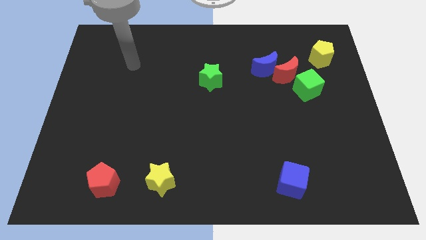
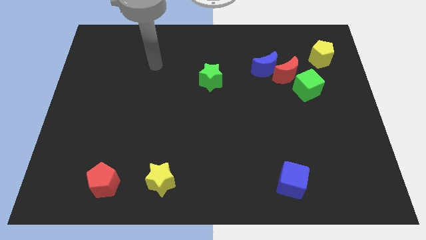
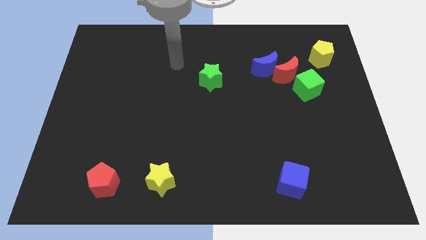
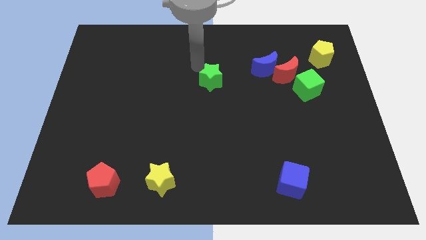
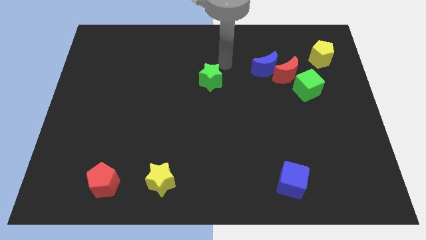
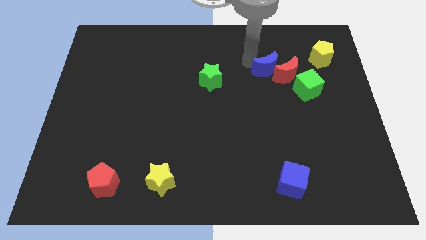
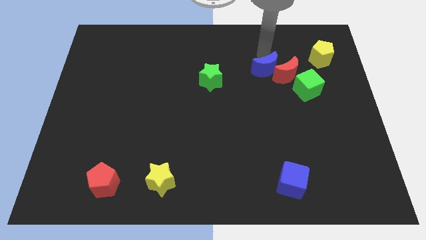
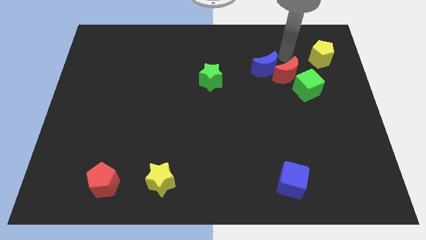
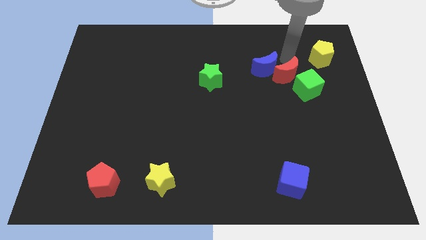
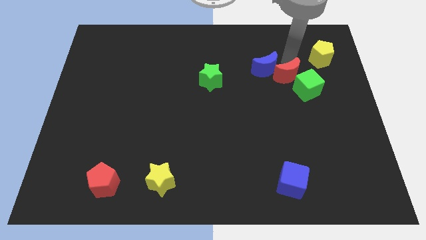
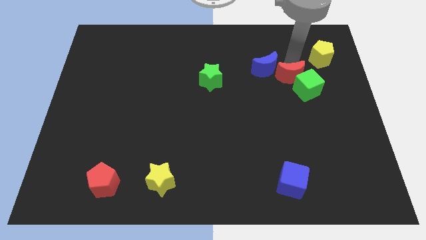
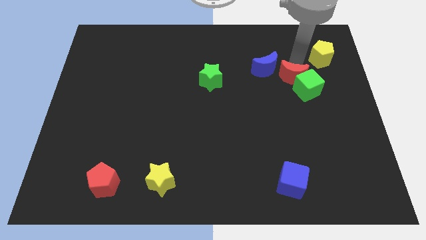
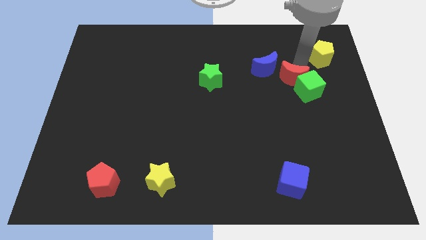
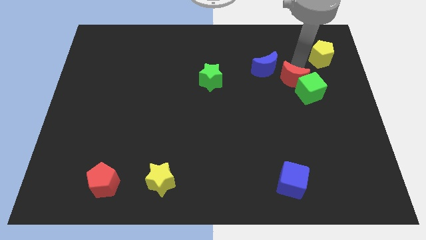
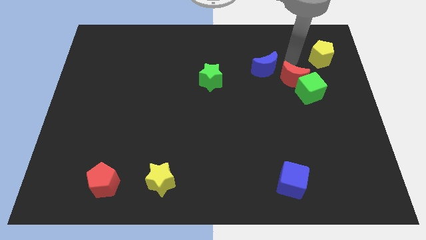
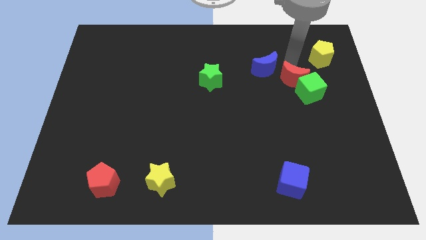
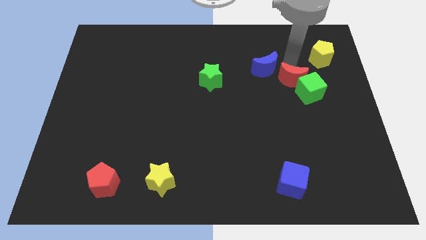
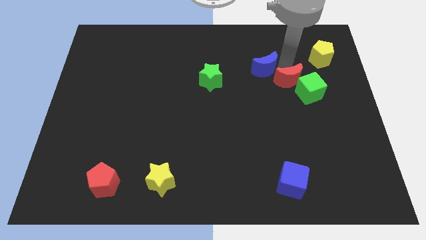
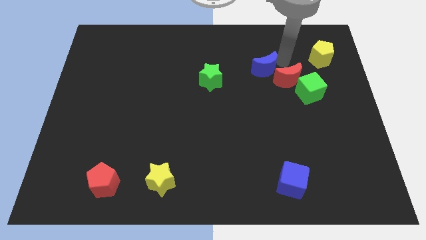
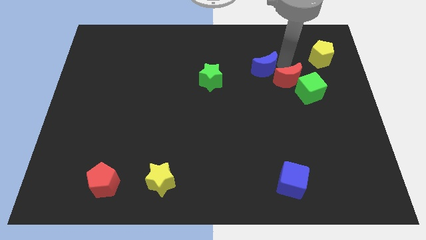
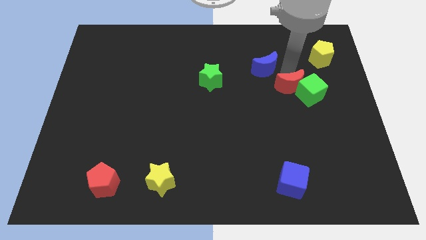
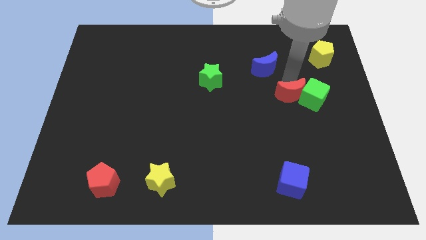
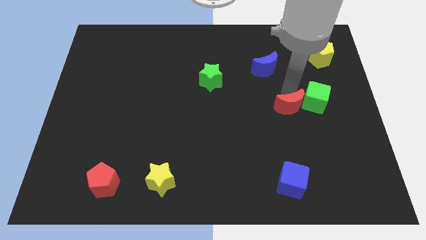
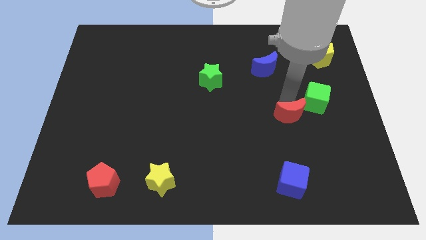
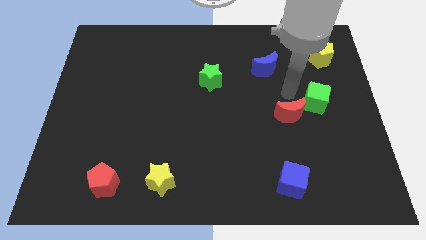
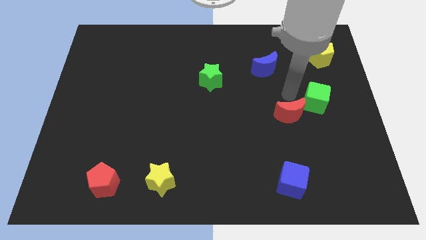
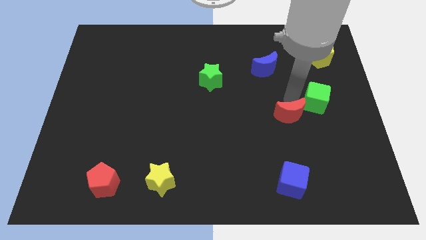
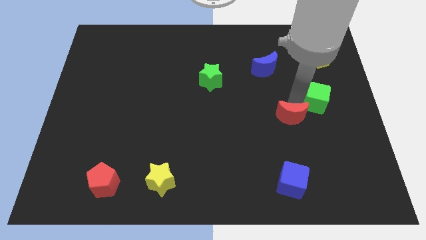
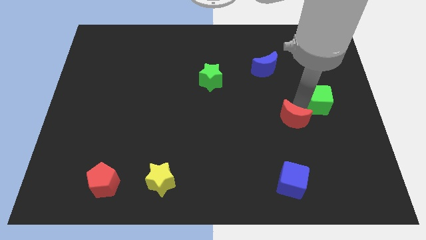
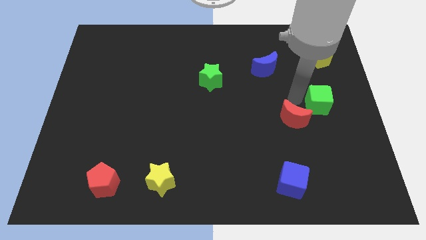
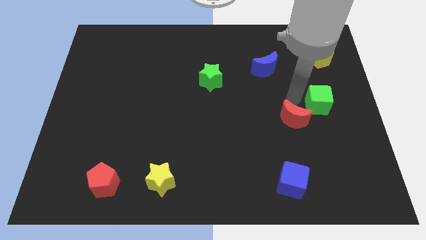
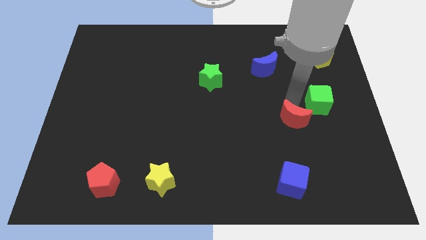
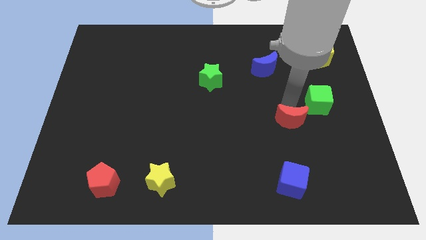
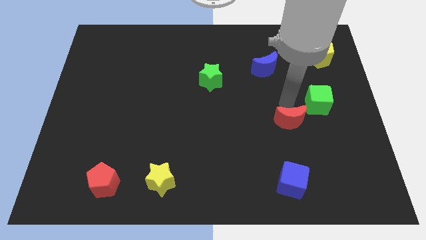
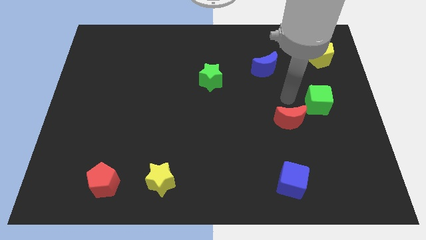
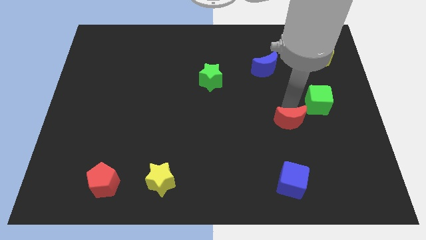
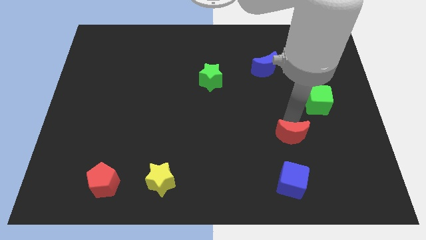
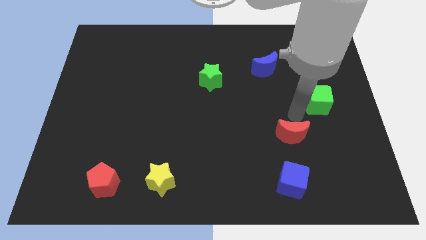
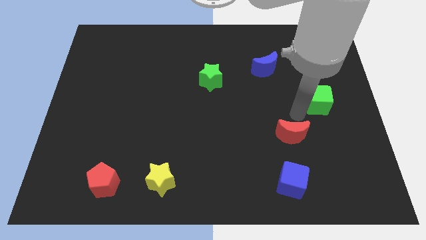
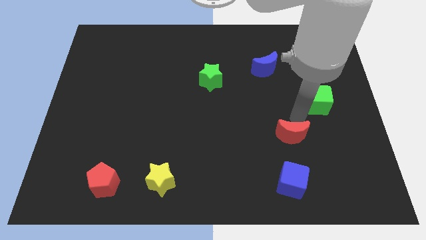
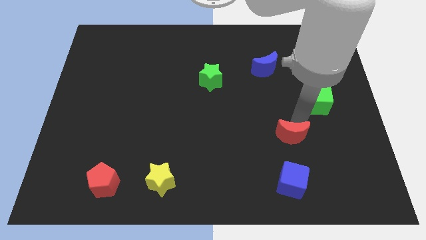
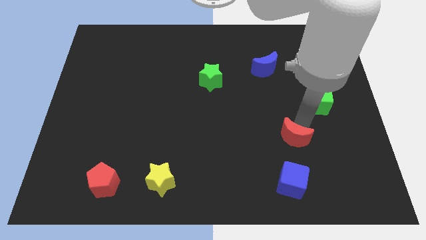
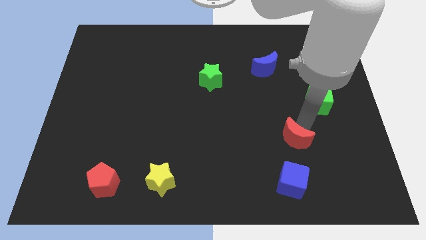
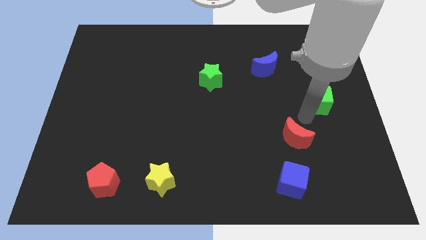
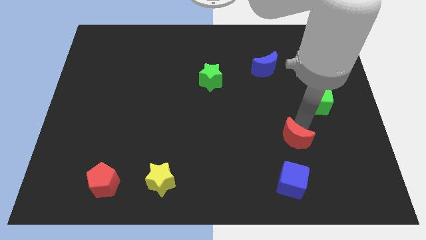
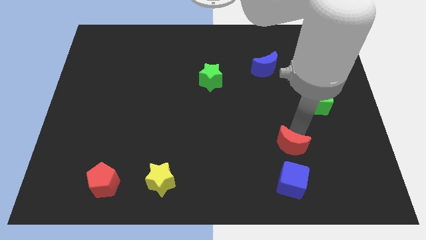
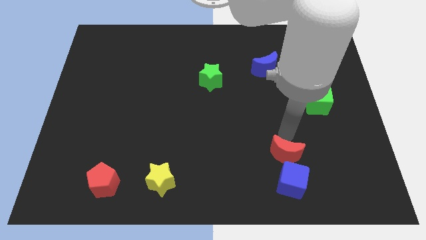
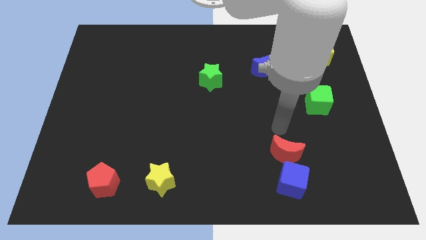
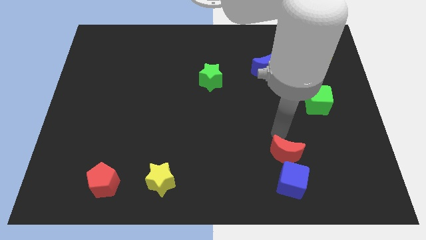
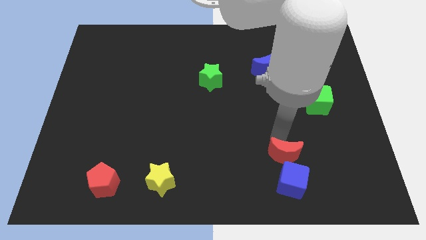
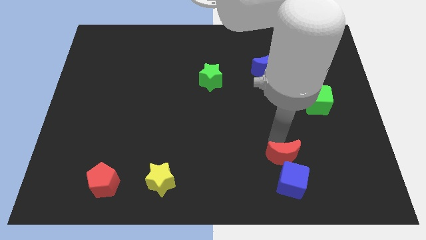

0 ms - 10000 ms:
slide the red moon next to the blue cube

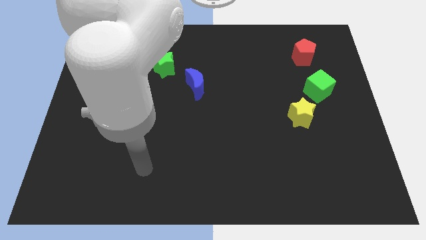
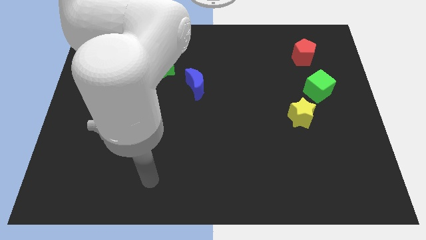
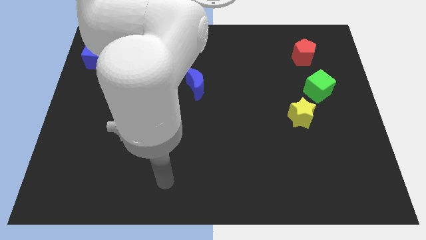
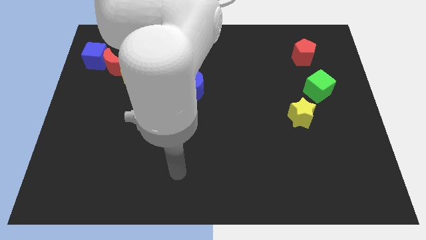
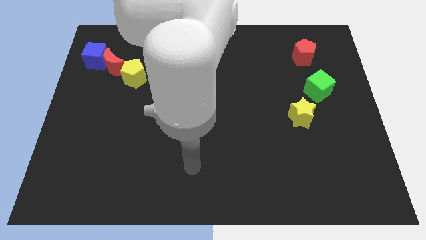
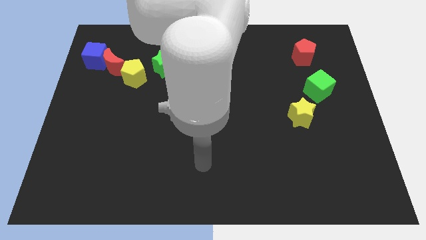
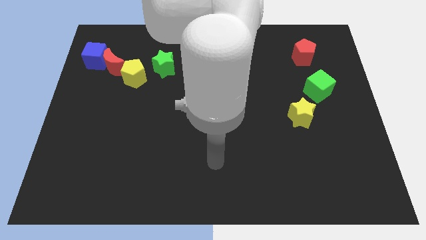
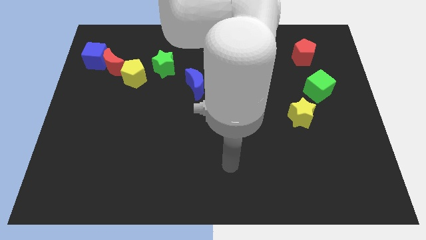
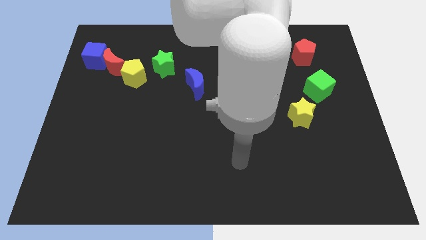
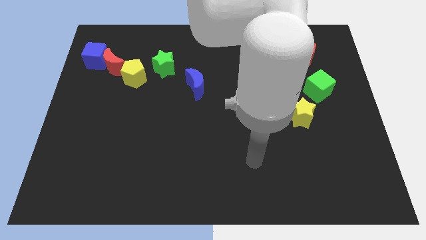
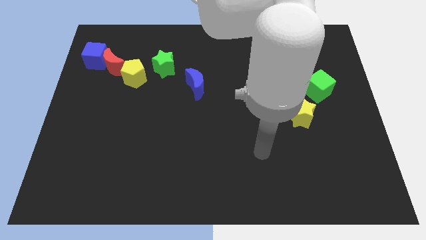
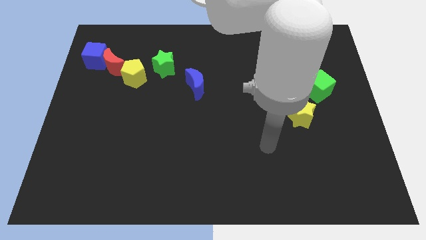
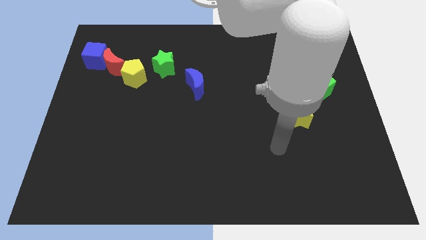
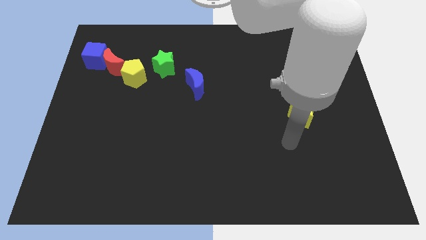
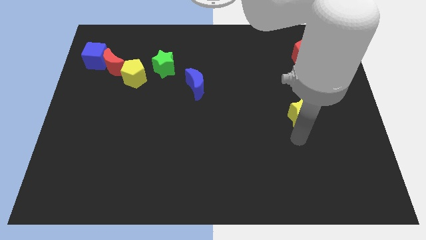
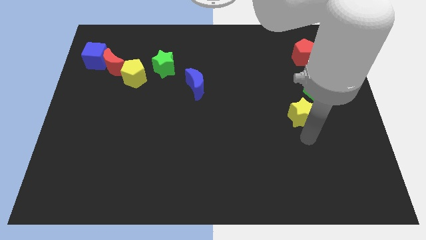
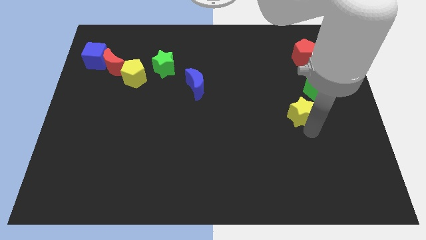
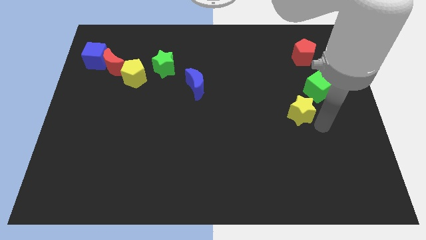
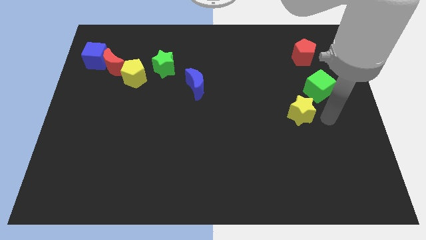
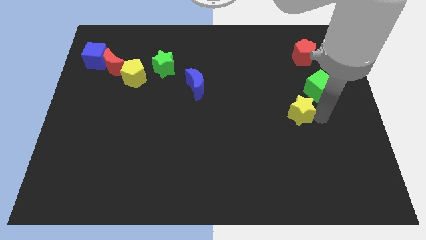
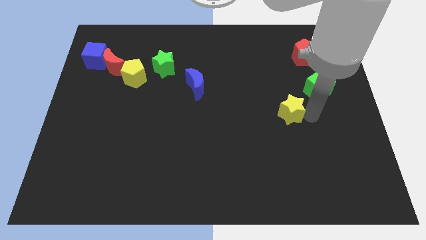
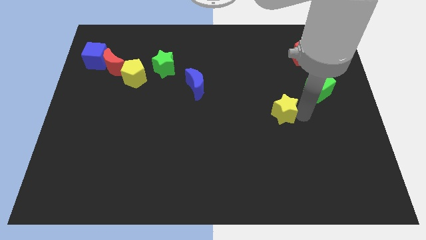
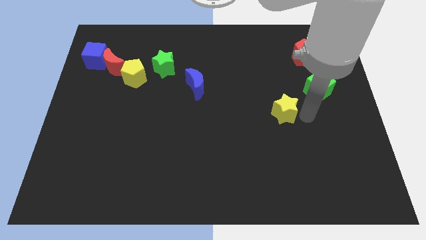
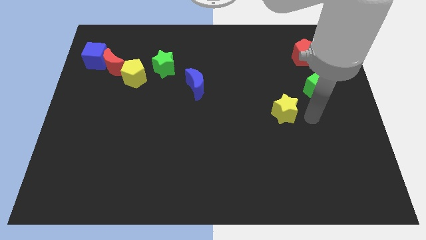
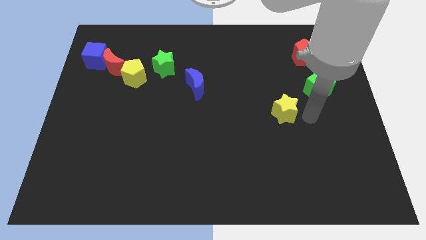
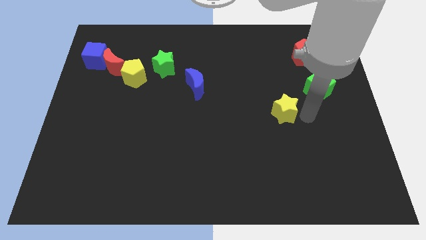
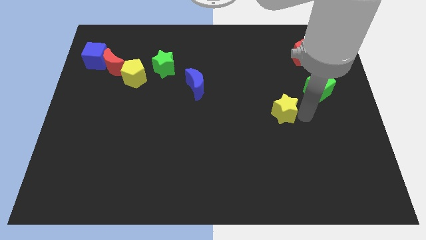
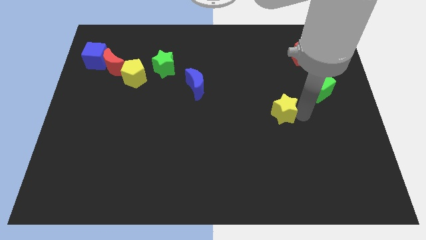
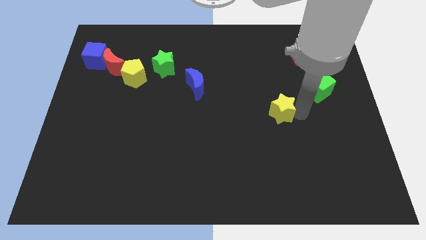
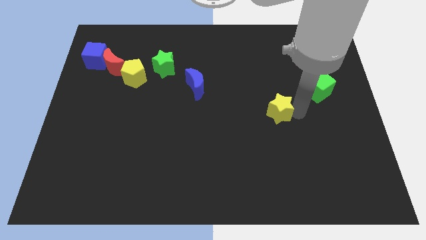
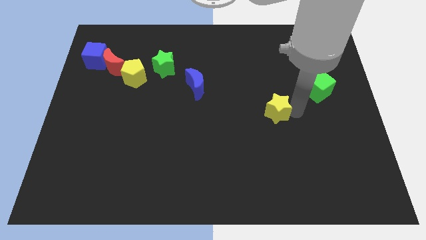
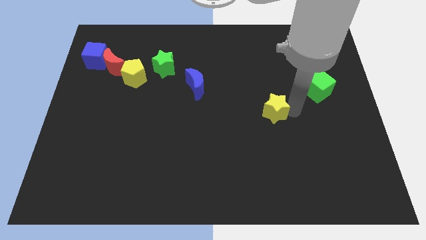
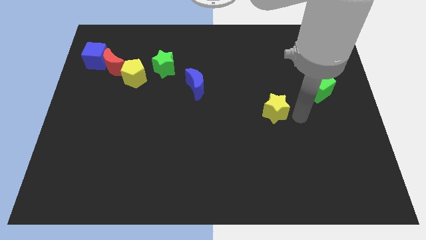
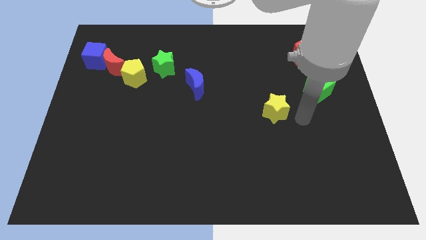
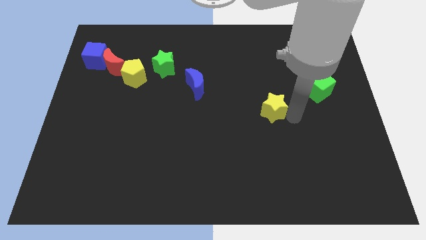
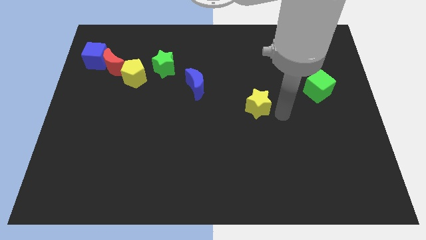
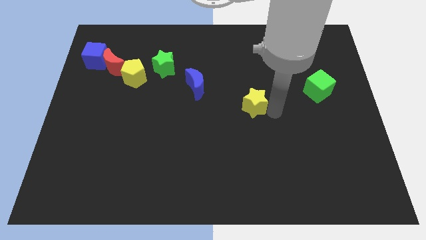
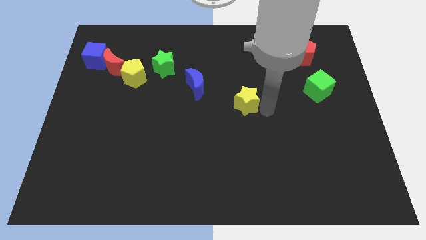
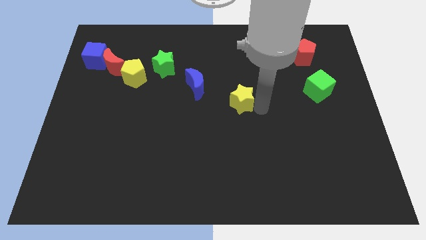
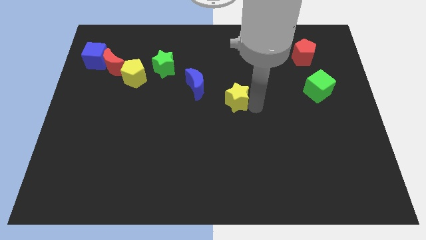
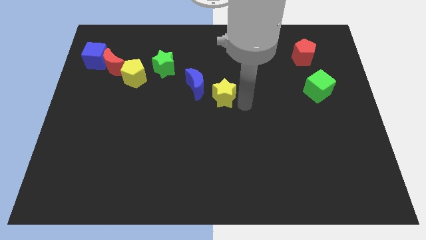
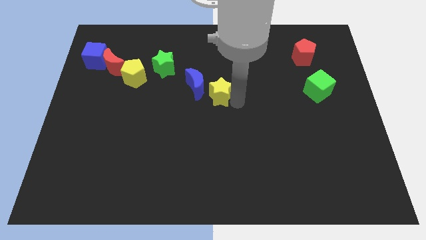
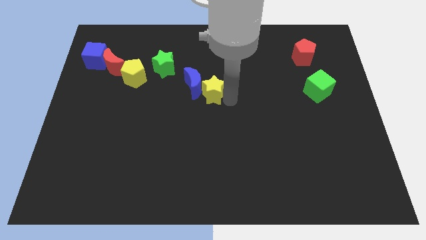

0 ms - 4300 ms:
move the yellow star close to the blue moon
